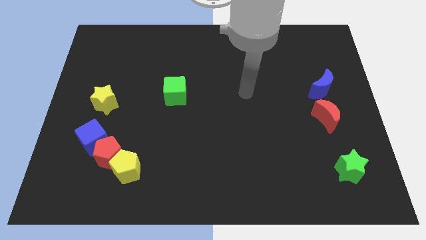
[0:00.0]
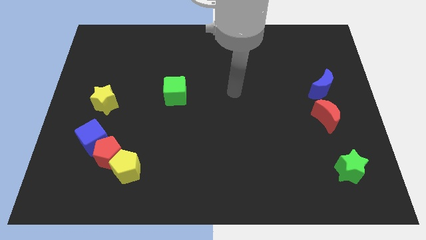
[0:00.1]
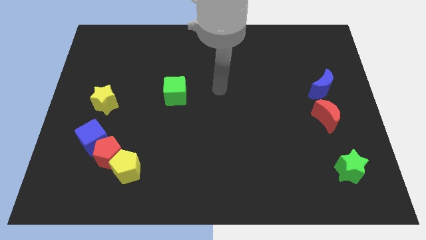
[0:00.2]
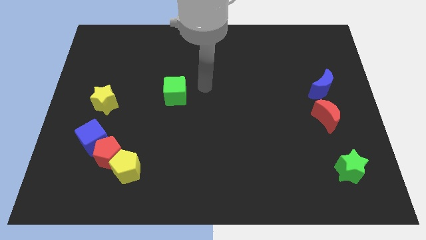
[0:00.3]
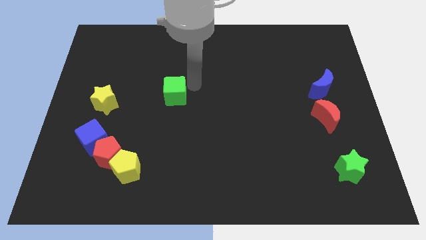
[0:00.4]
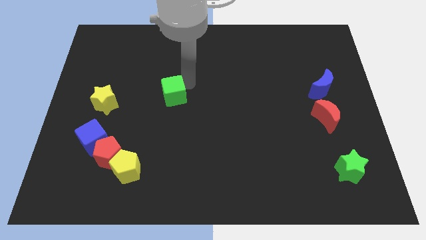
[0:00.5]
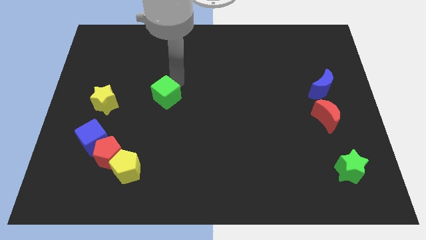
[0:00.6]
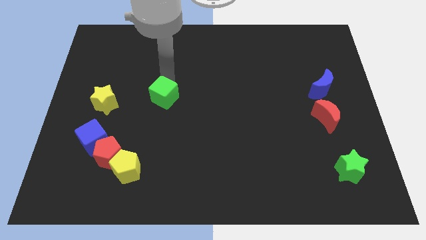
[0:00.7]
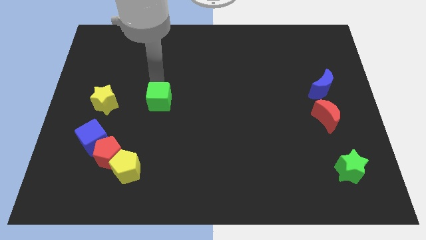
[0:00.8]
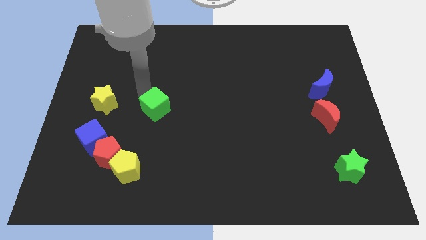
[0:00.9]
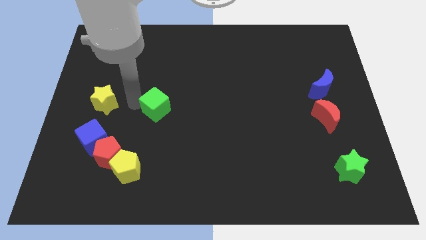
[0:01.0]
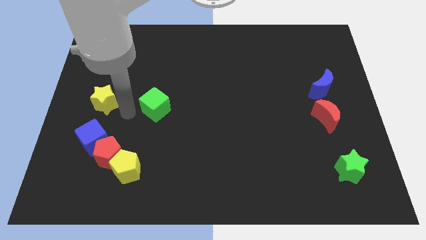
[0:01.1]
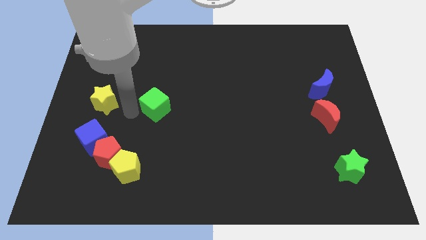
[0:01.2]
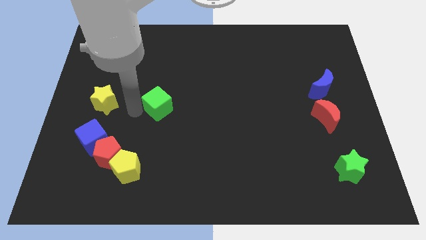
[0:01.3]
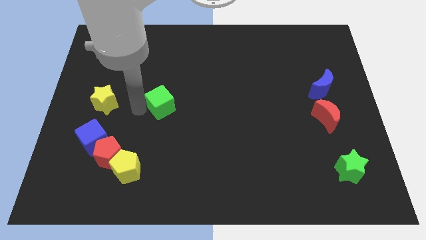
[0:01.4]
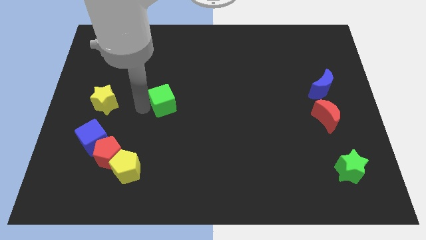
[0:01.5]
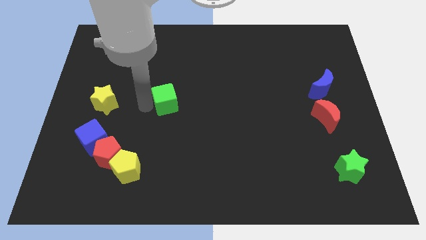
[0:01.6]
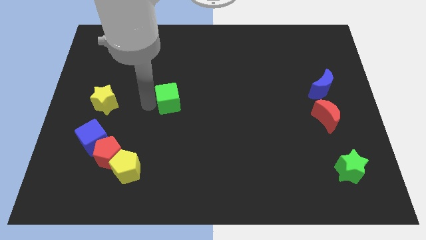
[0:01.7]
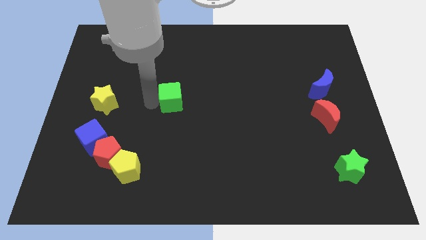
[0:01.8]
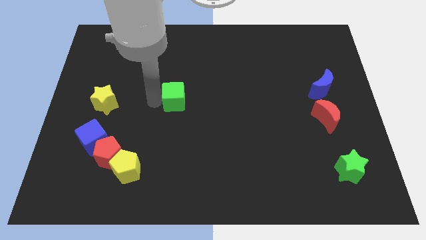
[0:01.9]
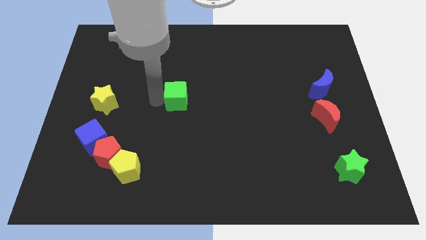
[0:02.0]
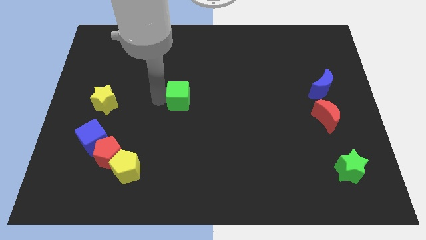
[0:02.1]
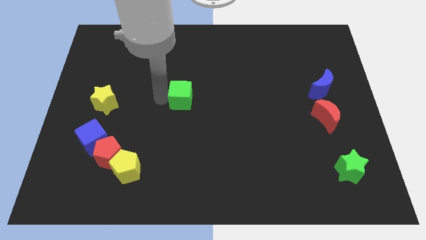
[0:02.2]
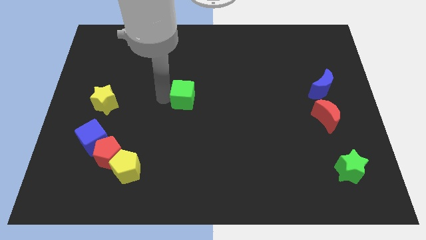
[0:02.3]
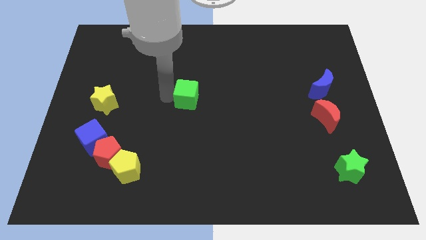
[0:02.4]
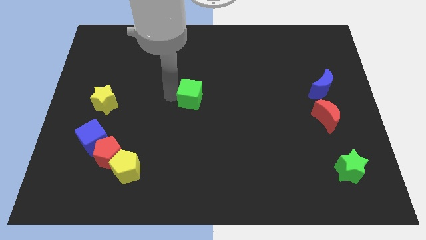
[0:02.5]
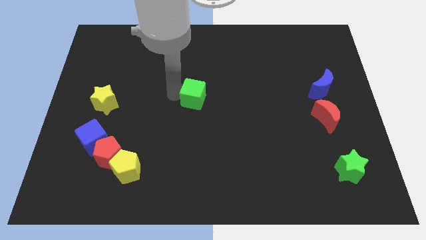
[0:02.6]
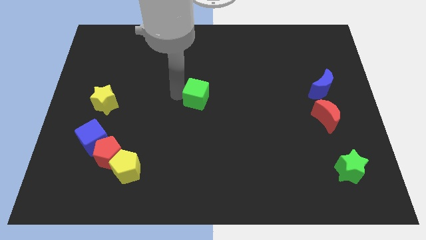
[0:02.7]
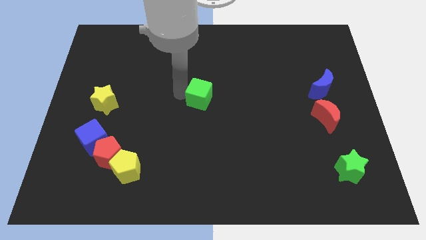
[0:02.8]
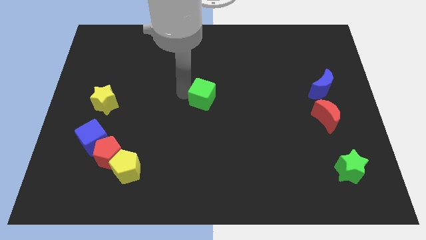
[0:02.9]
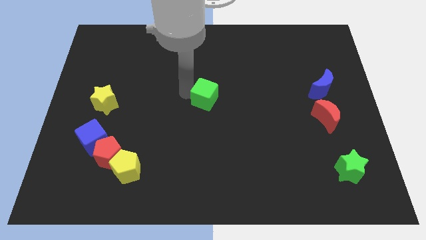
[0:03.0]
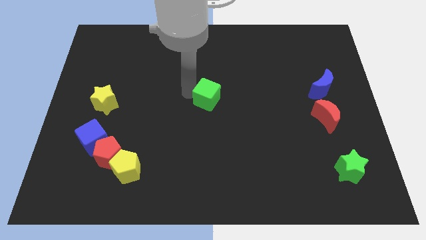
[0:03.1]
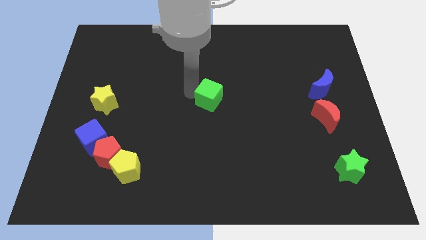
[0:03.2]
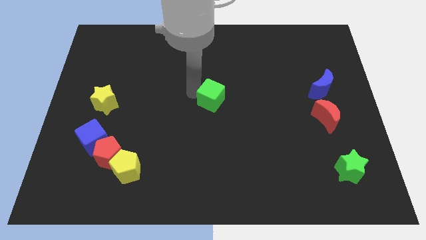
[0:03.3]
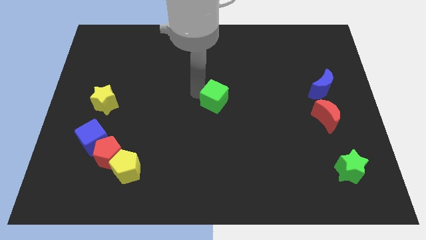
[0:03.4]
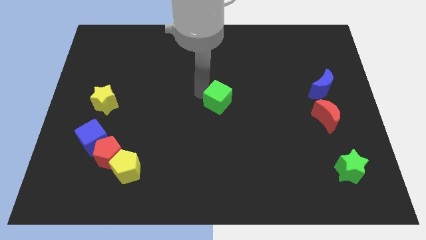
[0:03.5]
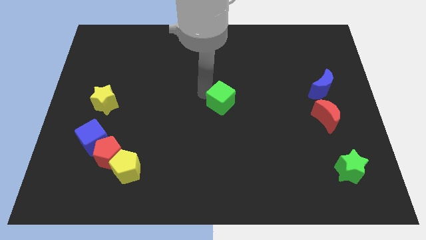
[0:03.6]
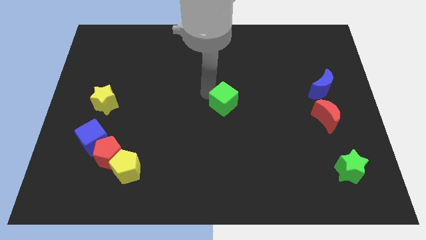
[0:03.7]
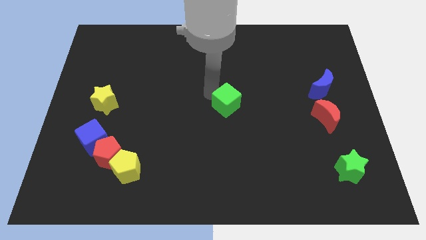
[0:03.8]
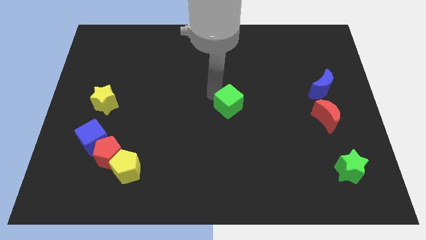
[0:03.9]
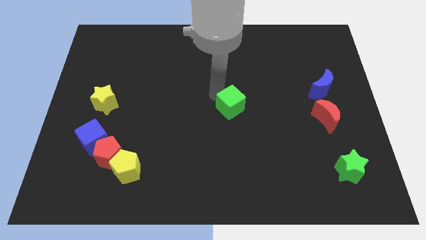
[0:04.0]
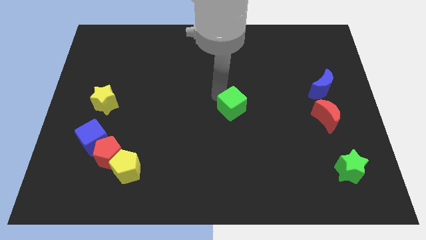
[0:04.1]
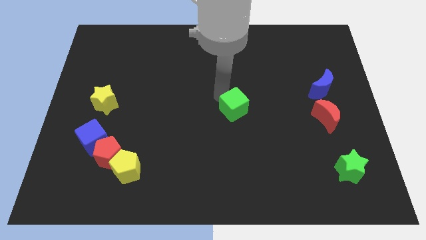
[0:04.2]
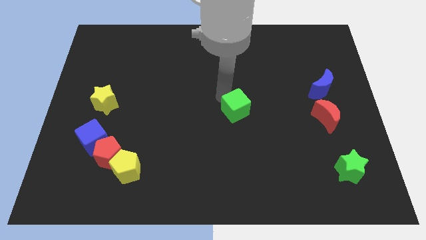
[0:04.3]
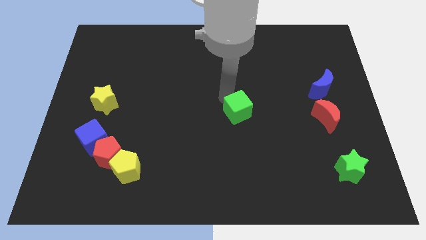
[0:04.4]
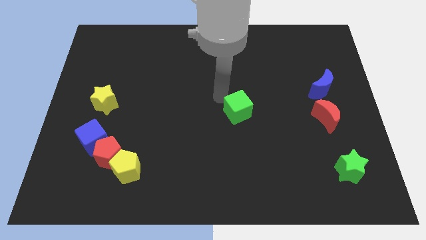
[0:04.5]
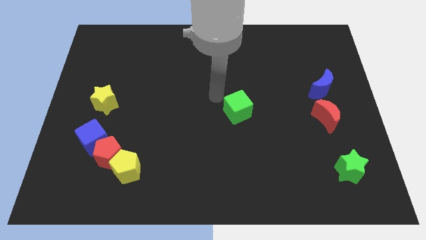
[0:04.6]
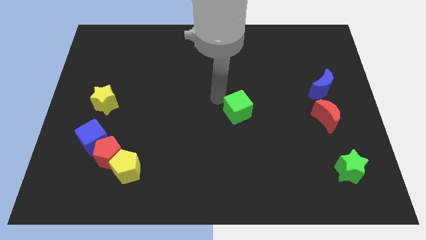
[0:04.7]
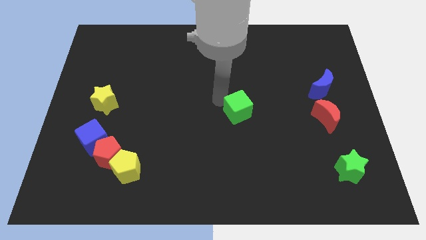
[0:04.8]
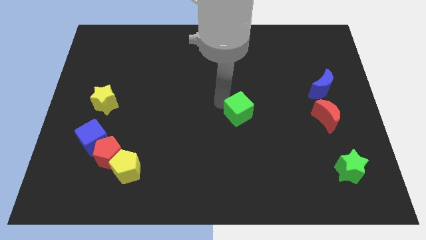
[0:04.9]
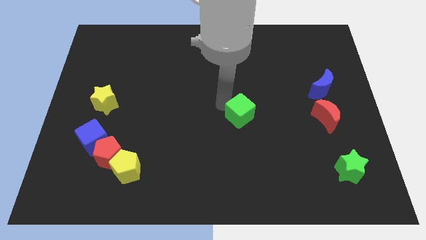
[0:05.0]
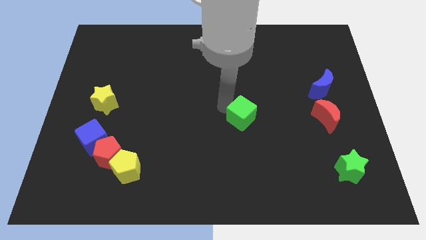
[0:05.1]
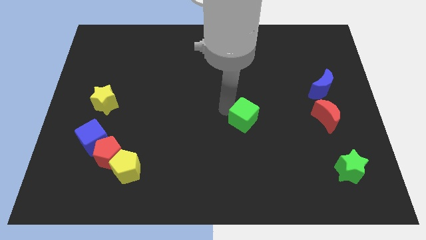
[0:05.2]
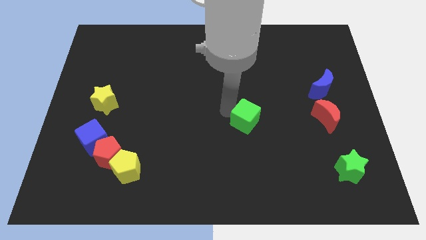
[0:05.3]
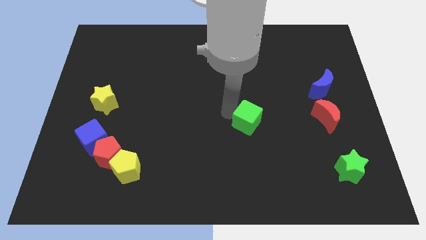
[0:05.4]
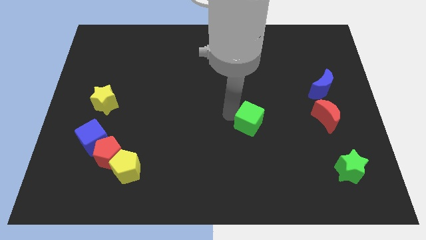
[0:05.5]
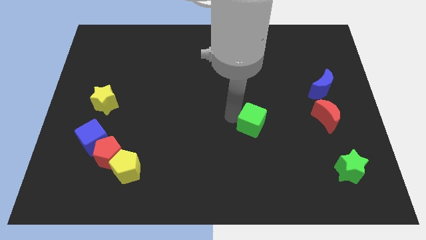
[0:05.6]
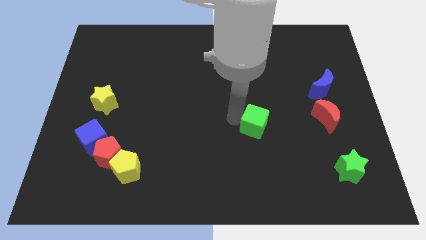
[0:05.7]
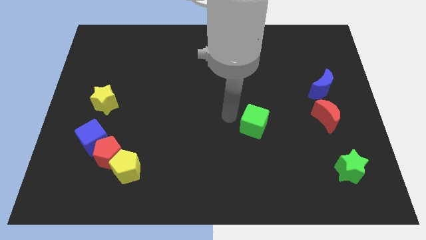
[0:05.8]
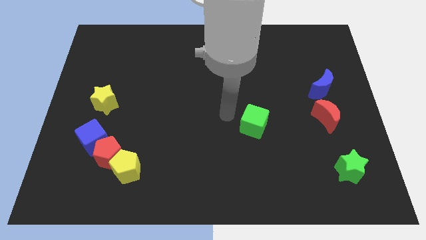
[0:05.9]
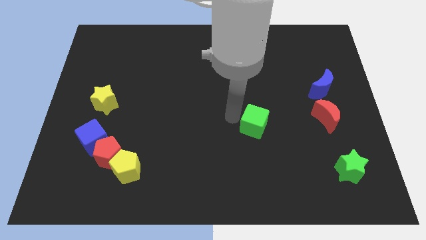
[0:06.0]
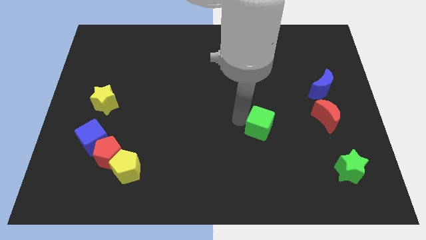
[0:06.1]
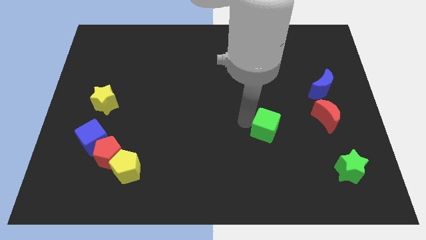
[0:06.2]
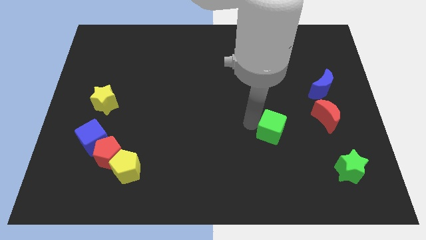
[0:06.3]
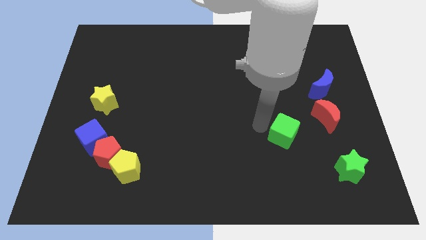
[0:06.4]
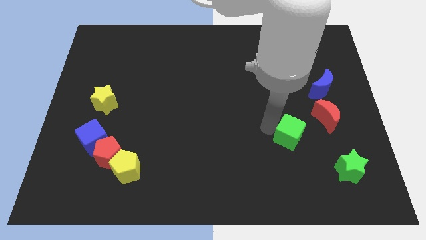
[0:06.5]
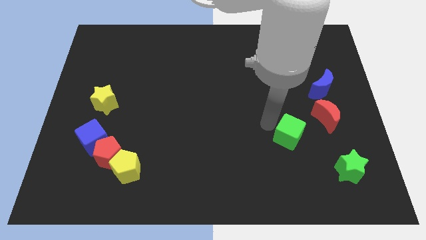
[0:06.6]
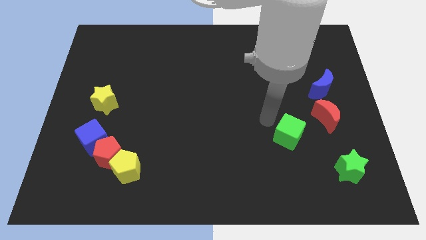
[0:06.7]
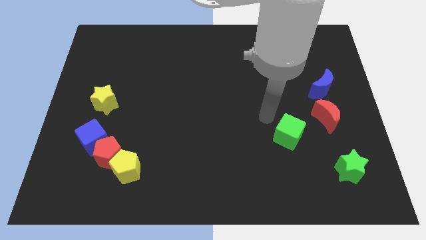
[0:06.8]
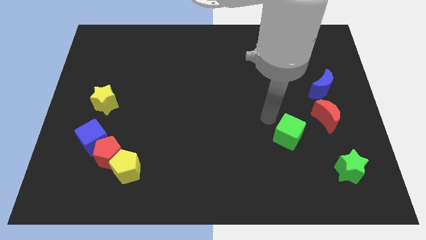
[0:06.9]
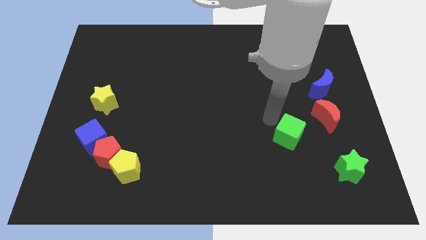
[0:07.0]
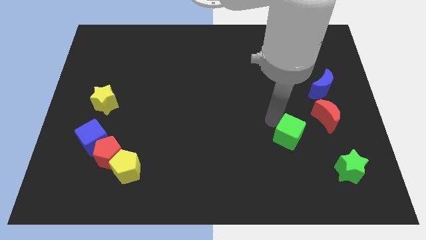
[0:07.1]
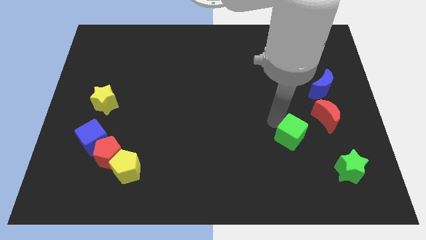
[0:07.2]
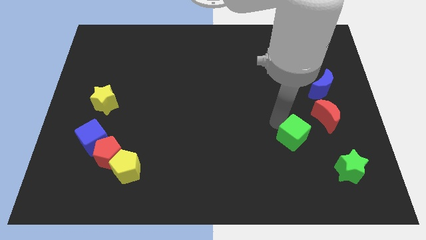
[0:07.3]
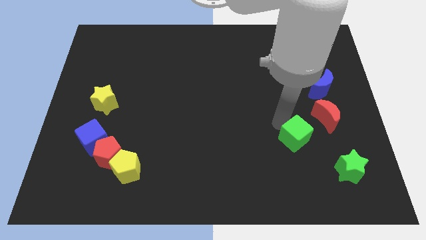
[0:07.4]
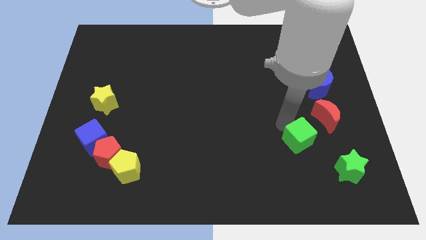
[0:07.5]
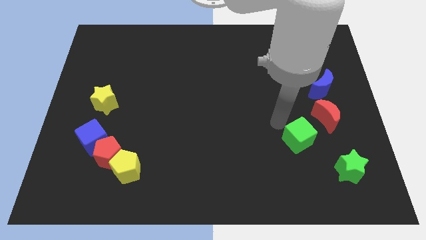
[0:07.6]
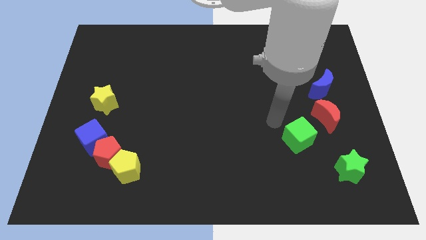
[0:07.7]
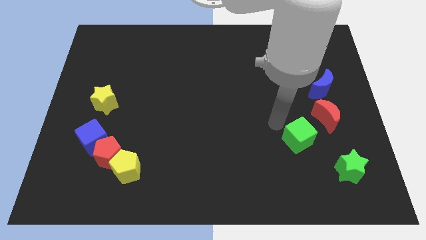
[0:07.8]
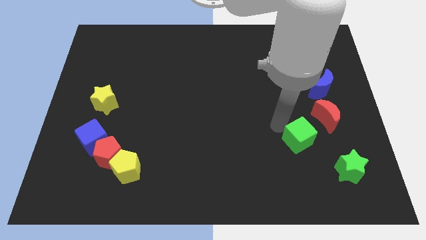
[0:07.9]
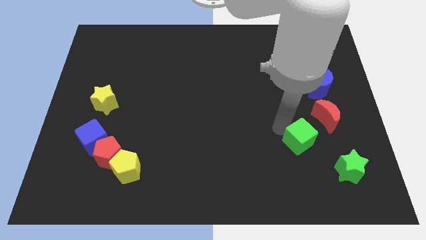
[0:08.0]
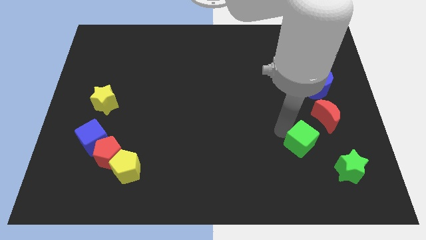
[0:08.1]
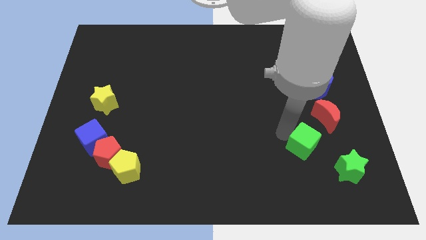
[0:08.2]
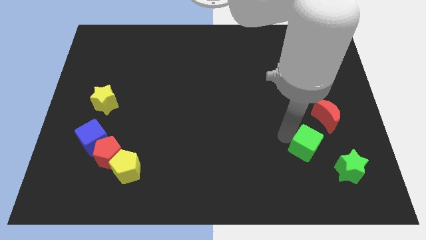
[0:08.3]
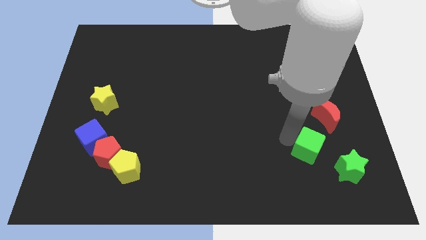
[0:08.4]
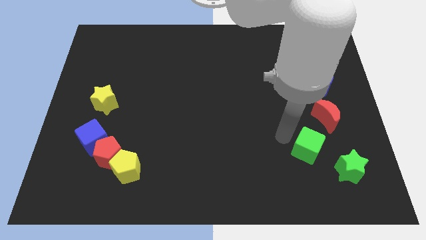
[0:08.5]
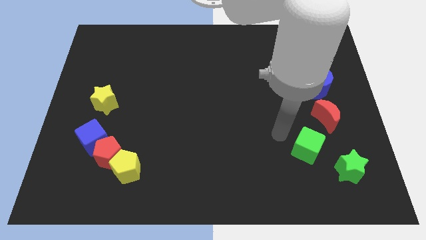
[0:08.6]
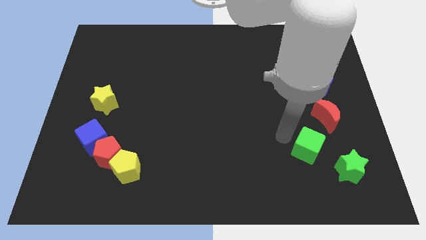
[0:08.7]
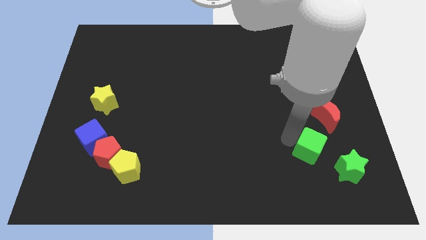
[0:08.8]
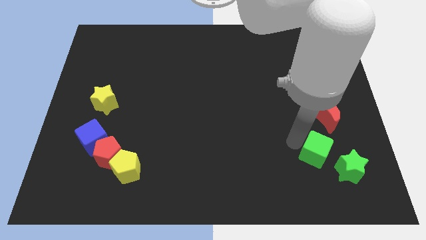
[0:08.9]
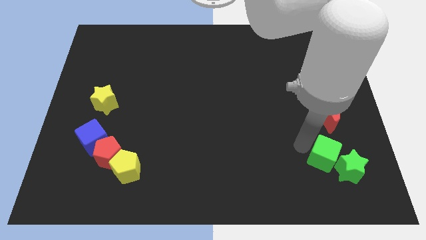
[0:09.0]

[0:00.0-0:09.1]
push the green cube to the green star
